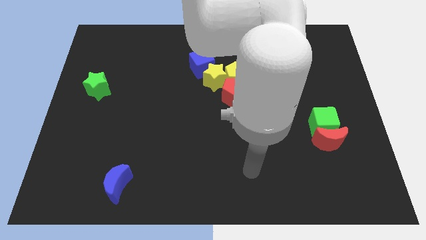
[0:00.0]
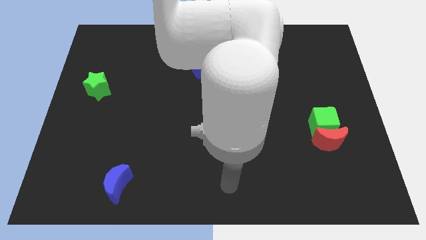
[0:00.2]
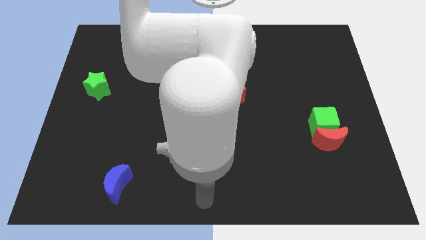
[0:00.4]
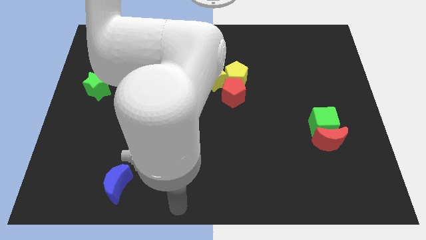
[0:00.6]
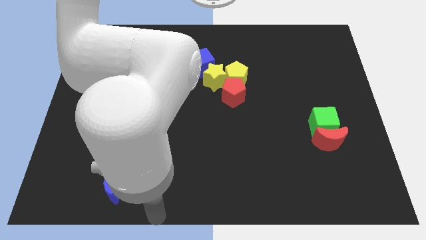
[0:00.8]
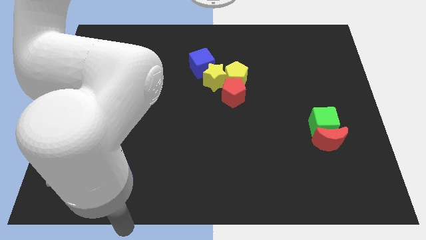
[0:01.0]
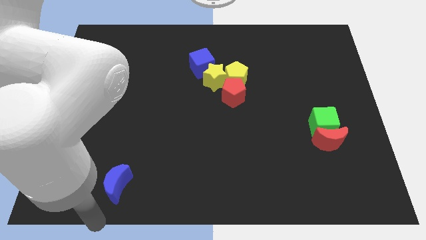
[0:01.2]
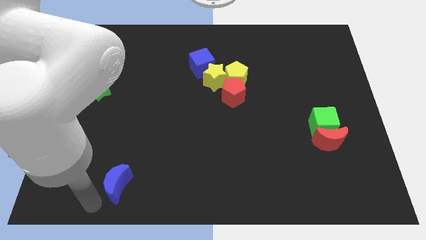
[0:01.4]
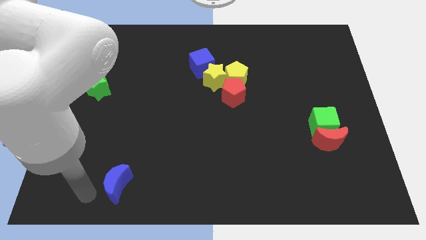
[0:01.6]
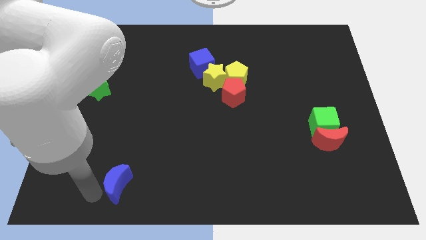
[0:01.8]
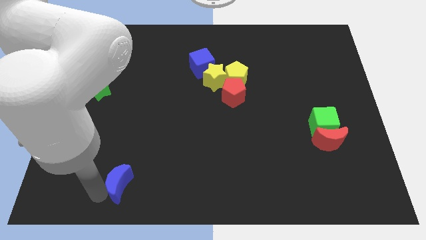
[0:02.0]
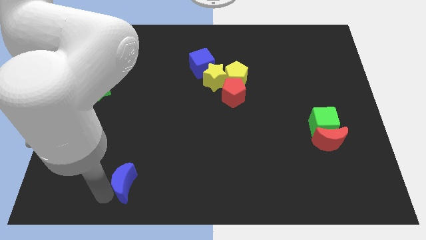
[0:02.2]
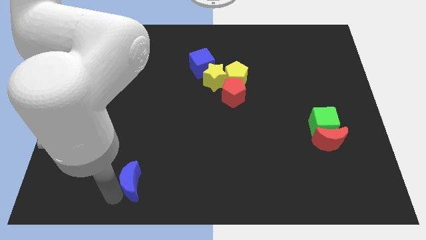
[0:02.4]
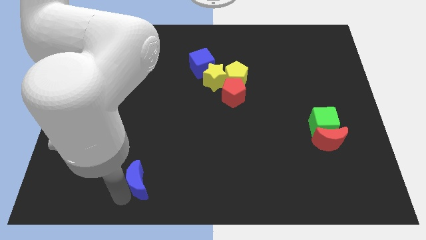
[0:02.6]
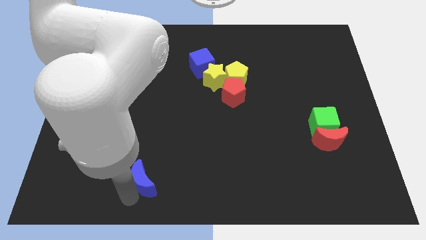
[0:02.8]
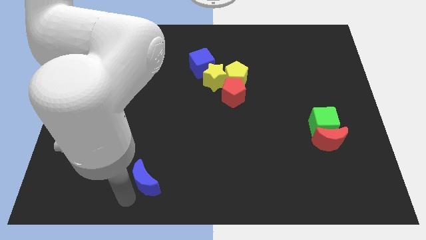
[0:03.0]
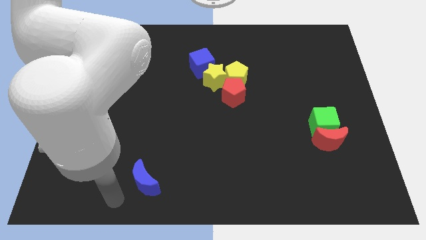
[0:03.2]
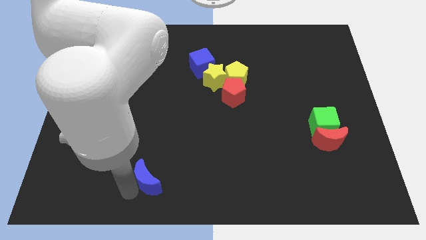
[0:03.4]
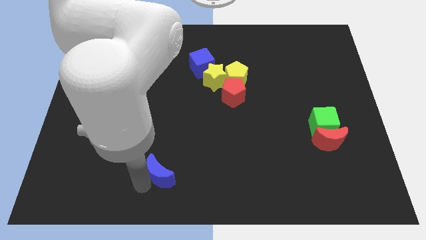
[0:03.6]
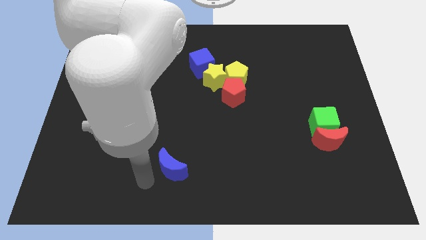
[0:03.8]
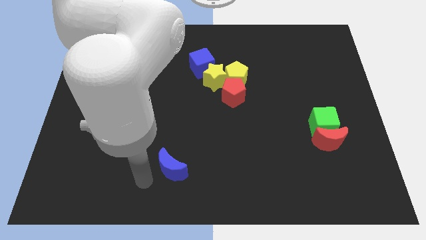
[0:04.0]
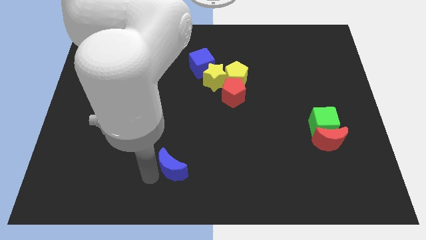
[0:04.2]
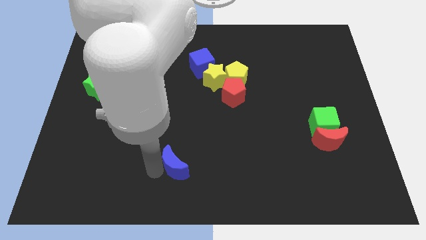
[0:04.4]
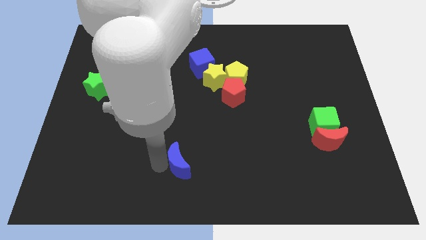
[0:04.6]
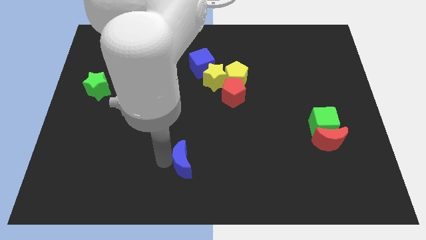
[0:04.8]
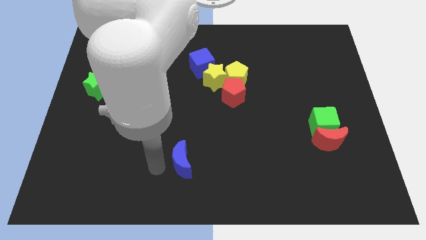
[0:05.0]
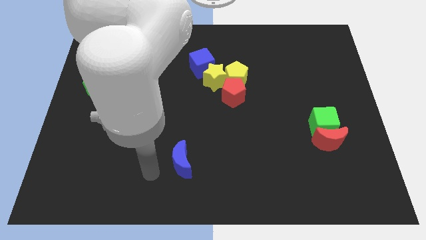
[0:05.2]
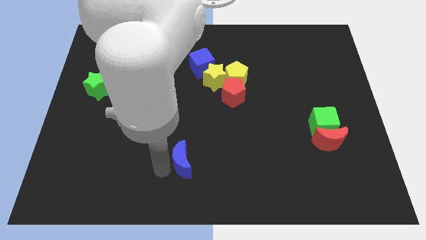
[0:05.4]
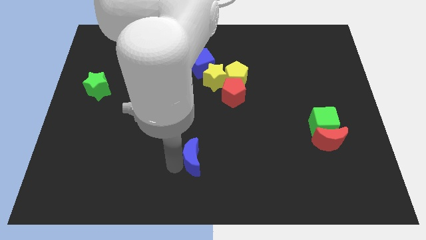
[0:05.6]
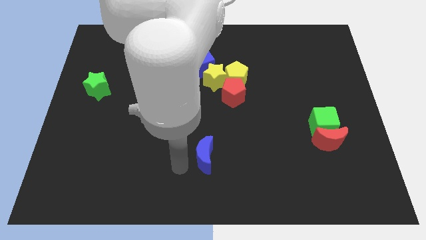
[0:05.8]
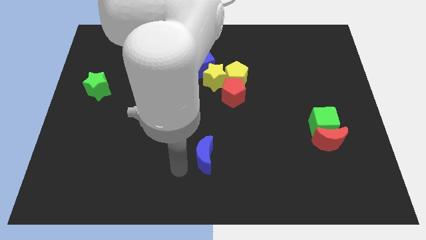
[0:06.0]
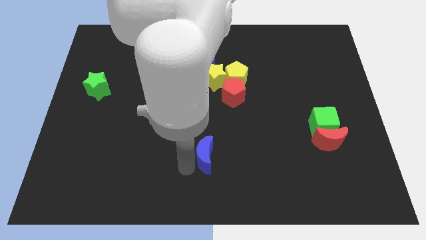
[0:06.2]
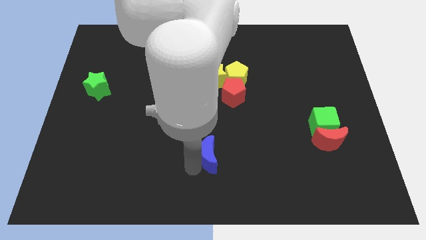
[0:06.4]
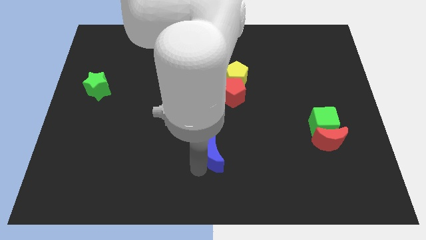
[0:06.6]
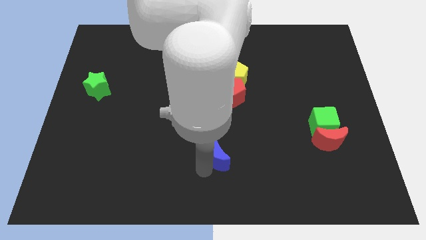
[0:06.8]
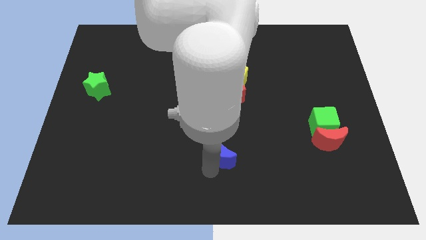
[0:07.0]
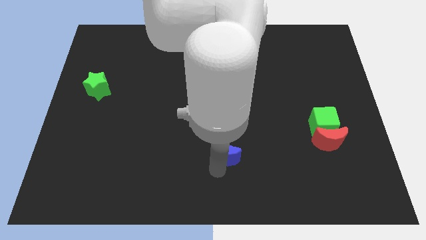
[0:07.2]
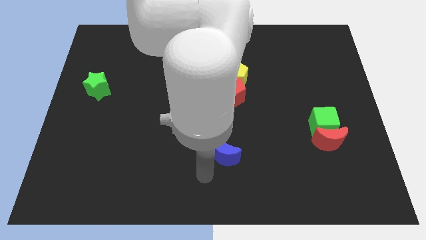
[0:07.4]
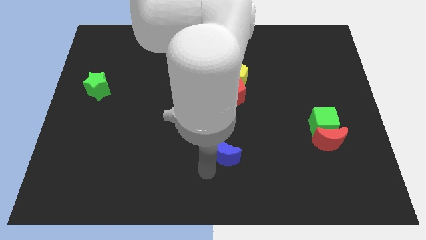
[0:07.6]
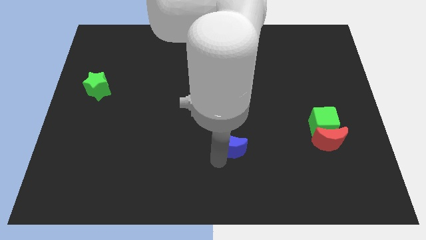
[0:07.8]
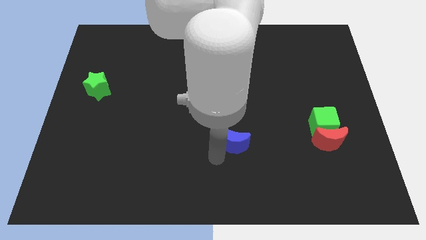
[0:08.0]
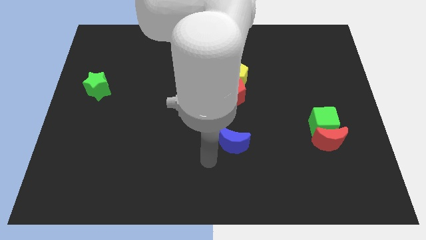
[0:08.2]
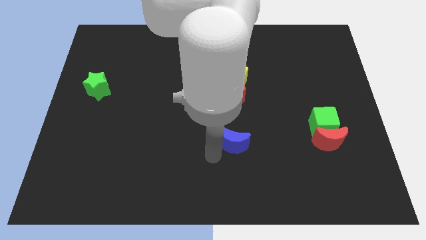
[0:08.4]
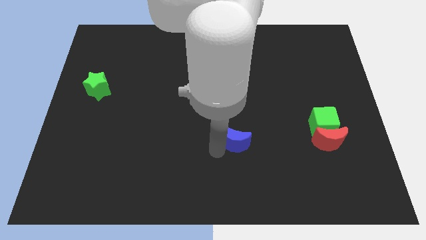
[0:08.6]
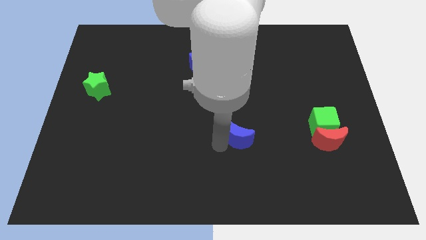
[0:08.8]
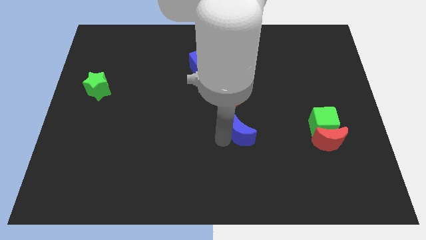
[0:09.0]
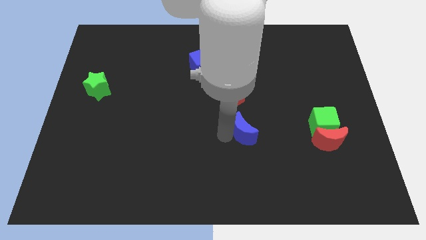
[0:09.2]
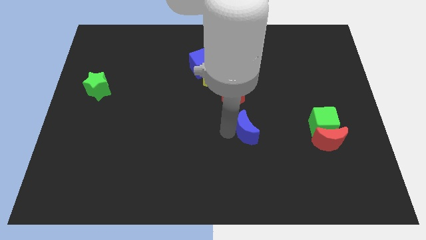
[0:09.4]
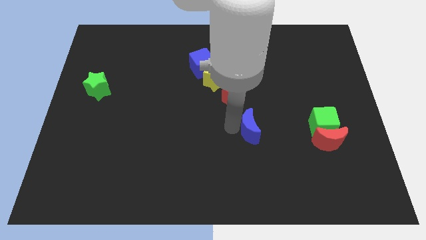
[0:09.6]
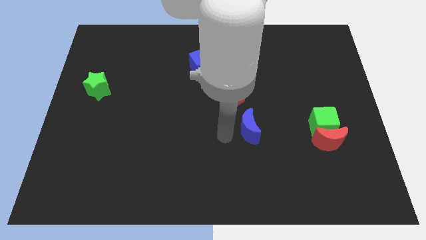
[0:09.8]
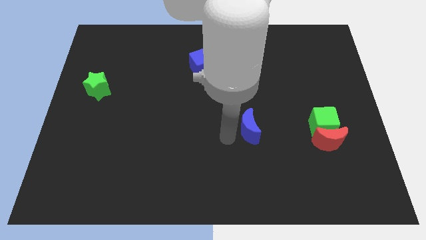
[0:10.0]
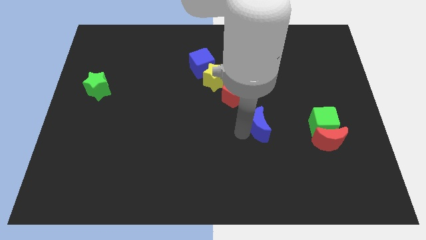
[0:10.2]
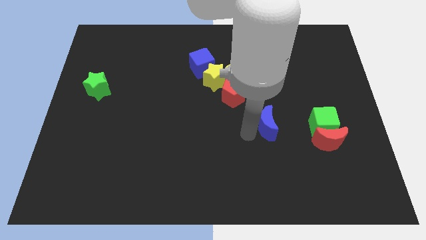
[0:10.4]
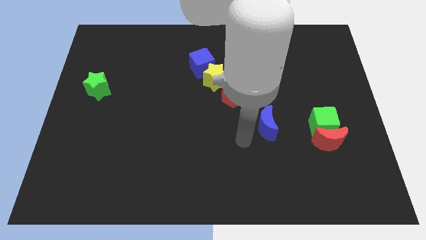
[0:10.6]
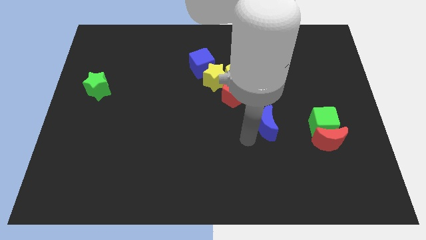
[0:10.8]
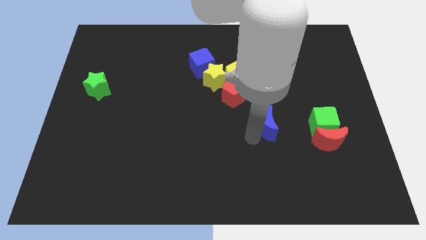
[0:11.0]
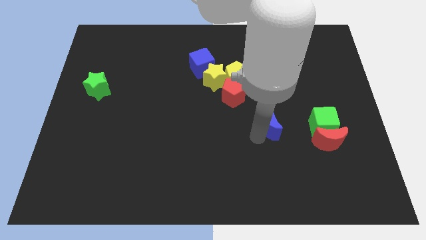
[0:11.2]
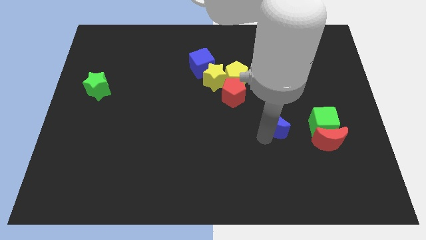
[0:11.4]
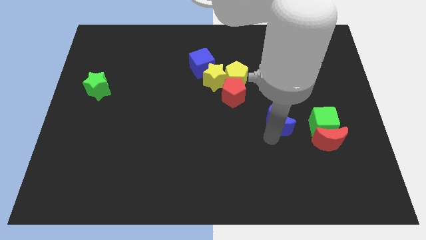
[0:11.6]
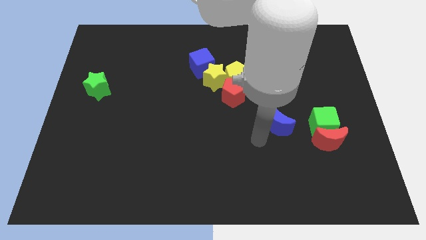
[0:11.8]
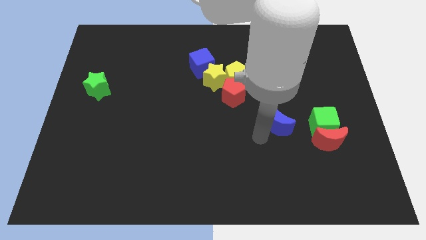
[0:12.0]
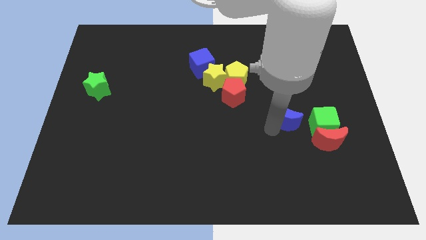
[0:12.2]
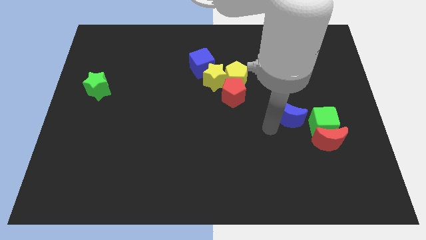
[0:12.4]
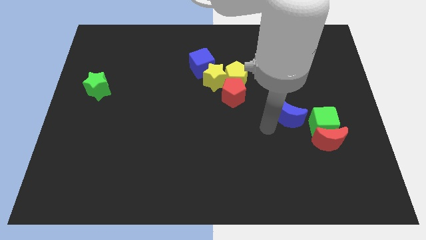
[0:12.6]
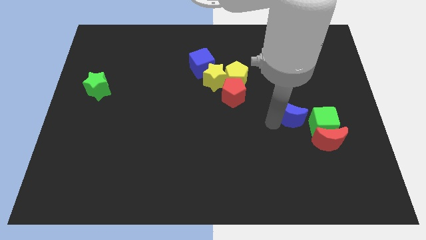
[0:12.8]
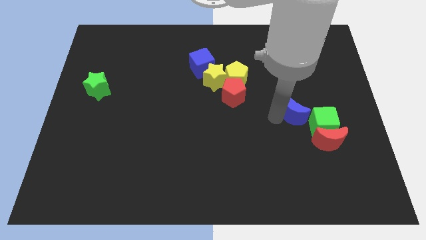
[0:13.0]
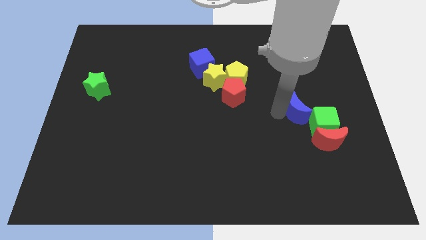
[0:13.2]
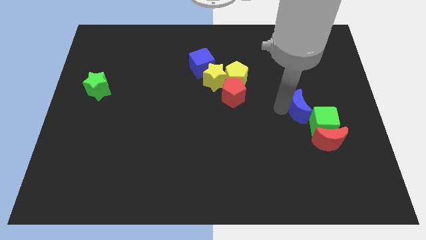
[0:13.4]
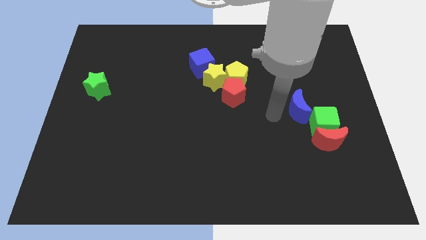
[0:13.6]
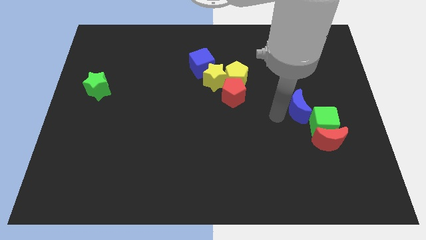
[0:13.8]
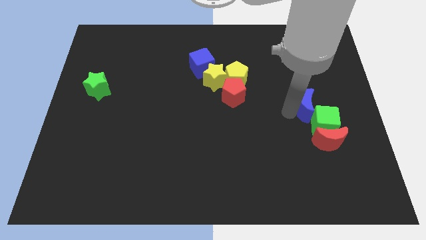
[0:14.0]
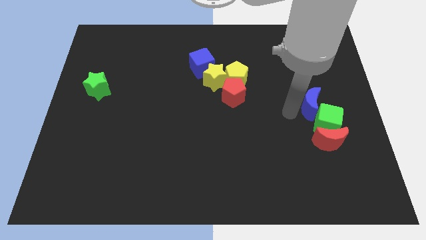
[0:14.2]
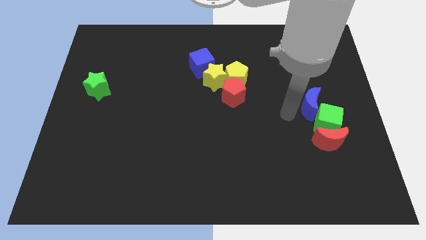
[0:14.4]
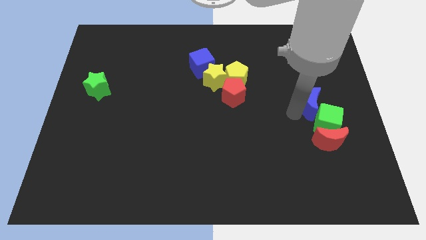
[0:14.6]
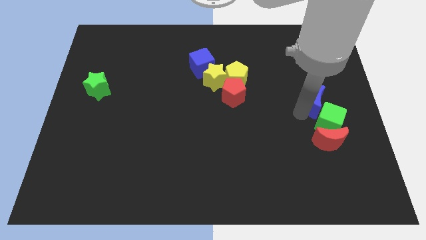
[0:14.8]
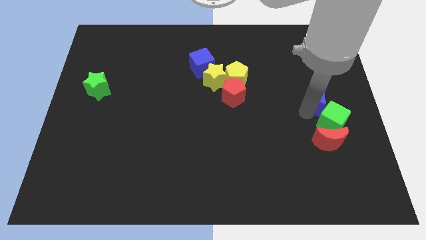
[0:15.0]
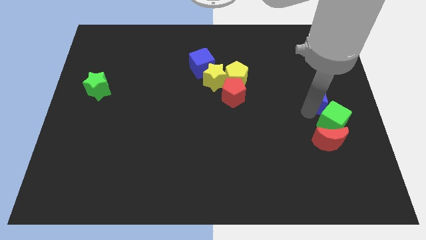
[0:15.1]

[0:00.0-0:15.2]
put the blue moon to the center right
